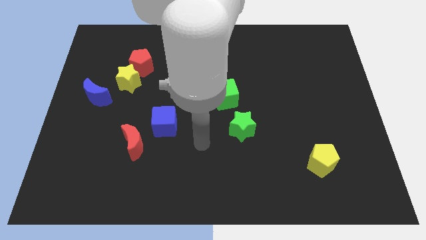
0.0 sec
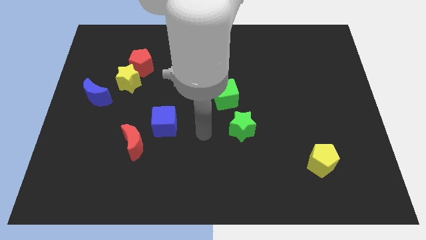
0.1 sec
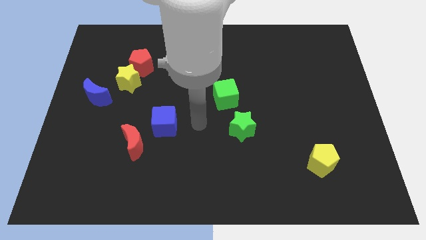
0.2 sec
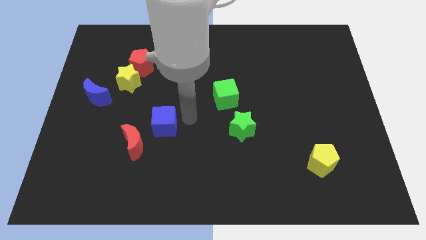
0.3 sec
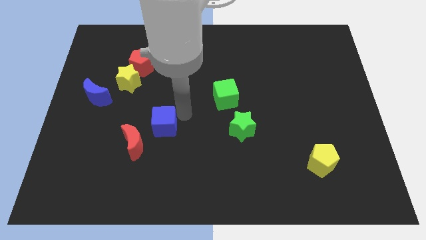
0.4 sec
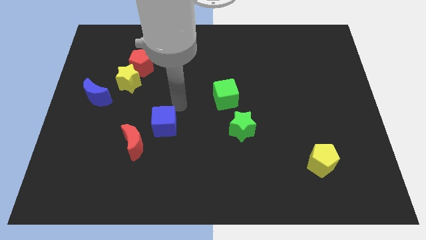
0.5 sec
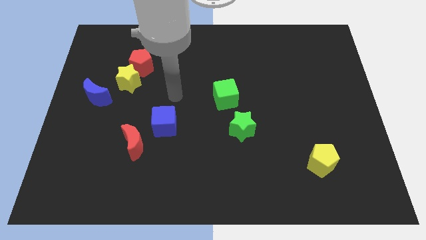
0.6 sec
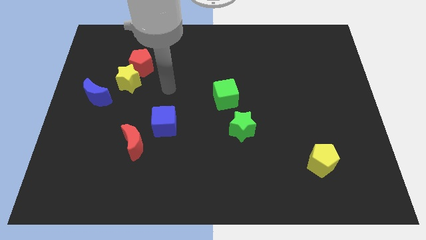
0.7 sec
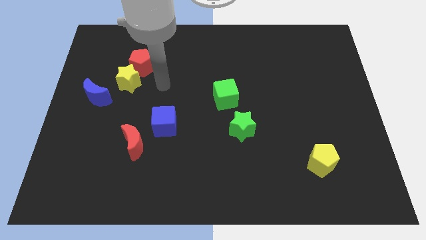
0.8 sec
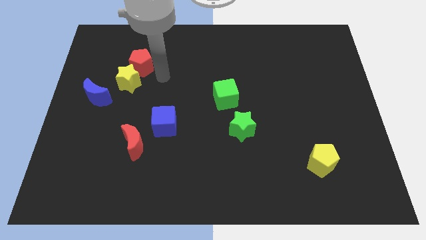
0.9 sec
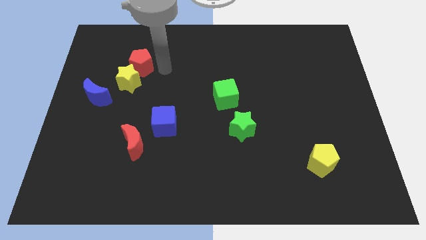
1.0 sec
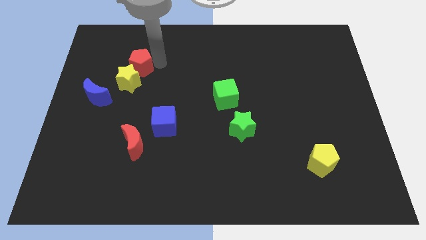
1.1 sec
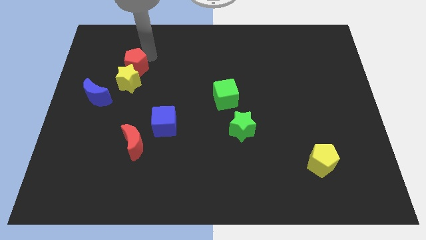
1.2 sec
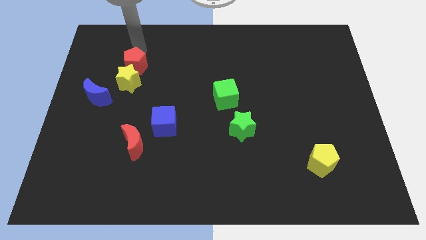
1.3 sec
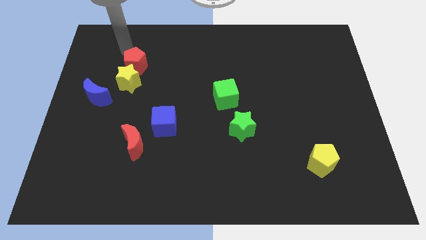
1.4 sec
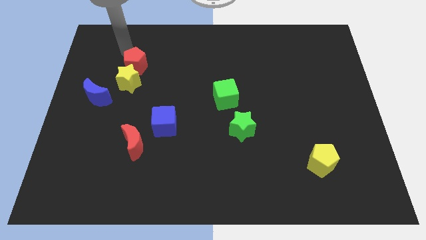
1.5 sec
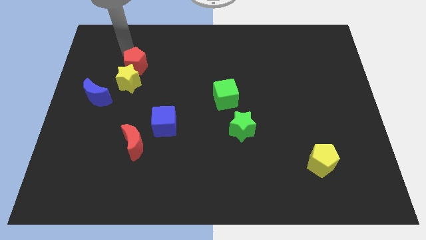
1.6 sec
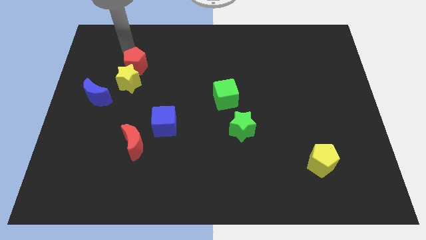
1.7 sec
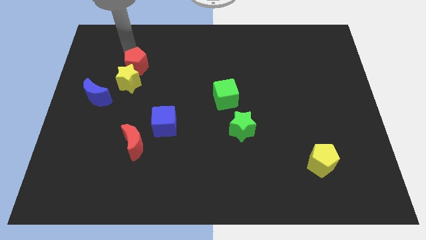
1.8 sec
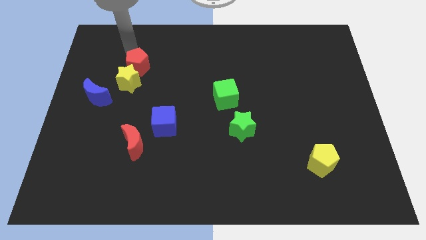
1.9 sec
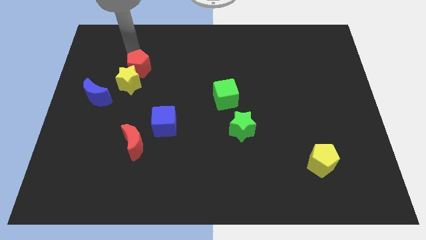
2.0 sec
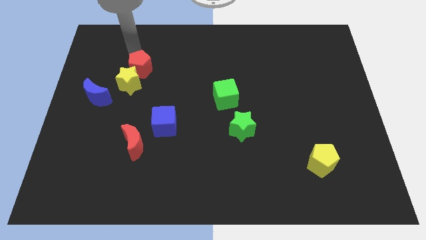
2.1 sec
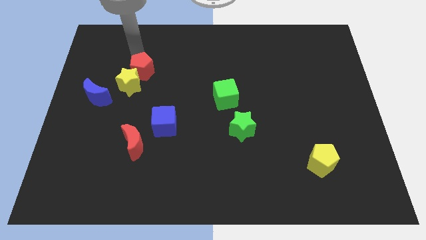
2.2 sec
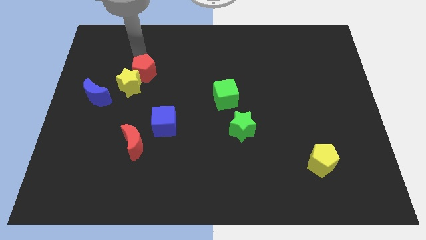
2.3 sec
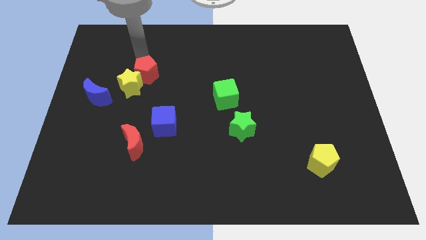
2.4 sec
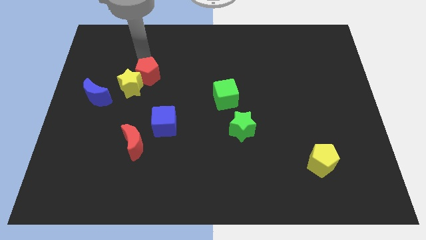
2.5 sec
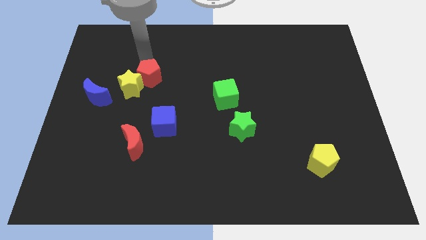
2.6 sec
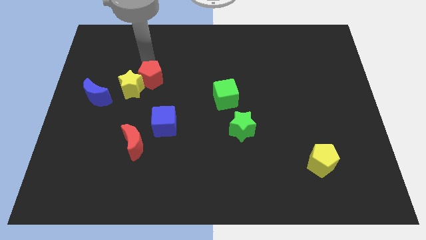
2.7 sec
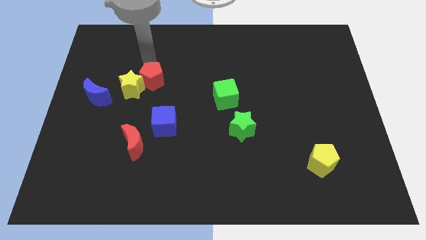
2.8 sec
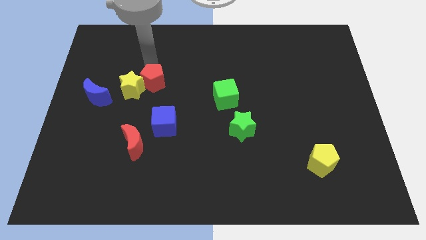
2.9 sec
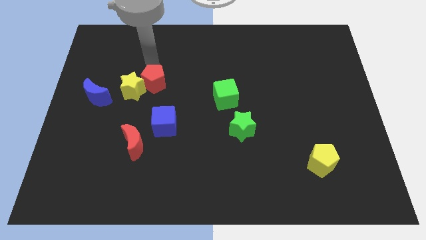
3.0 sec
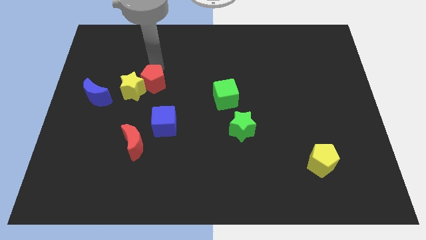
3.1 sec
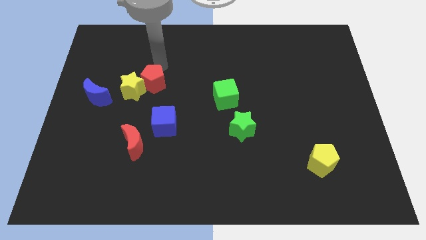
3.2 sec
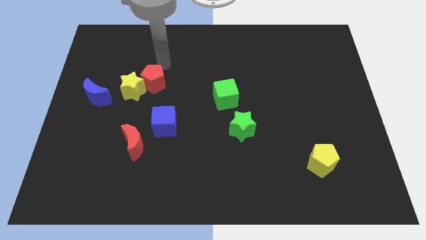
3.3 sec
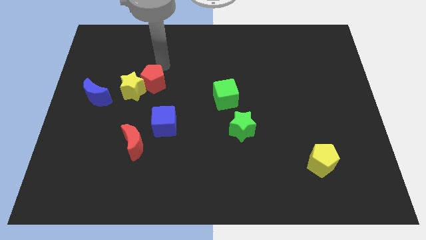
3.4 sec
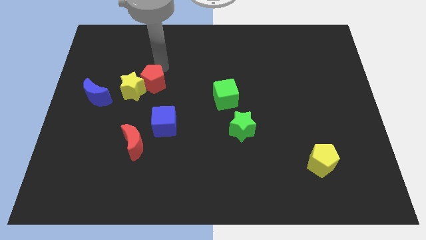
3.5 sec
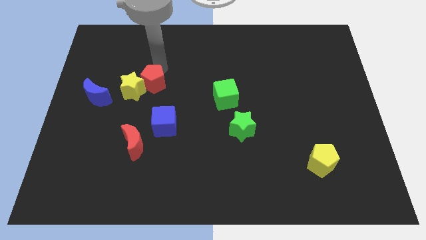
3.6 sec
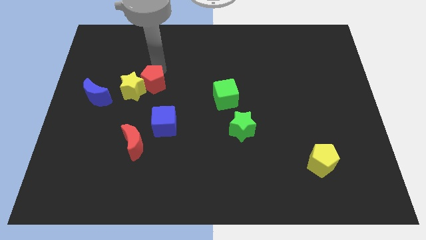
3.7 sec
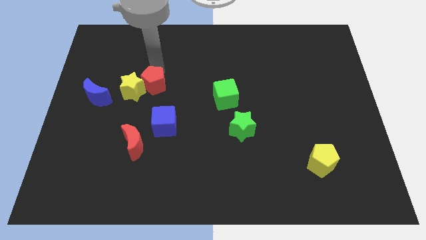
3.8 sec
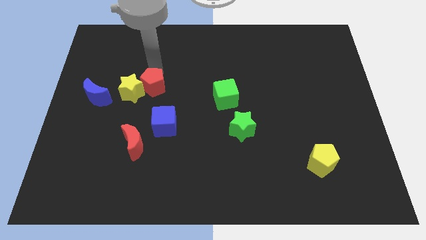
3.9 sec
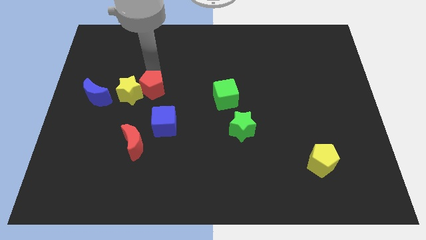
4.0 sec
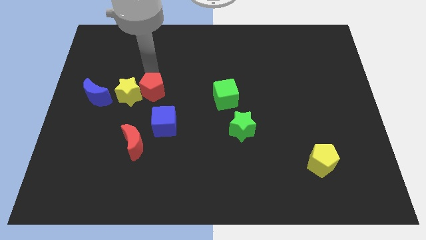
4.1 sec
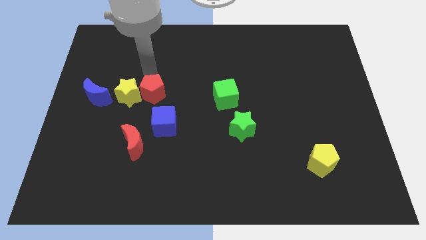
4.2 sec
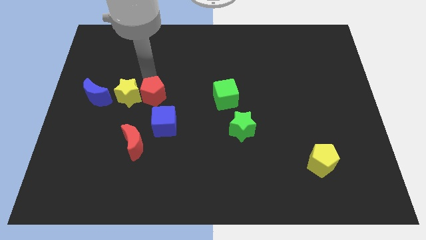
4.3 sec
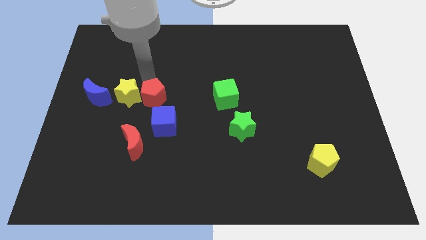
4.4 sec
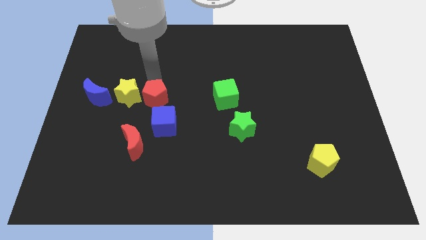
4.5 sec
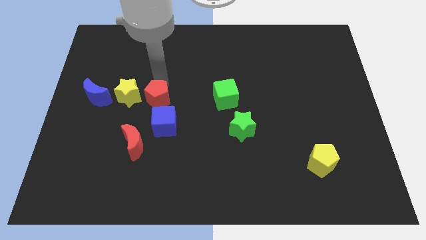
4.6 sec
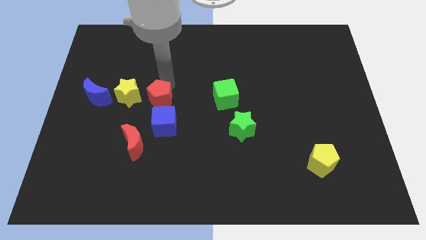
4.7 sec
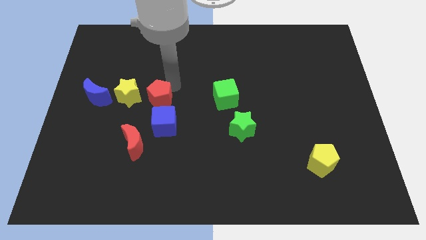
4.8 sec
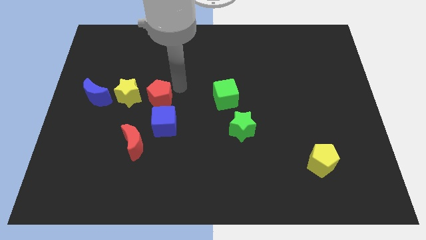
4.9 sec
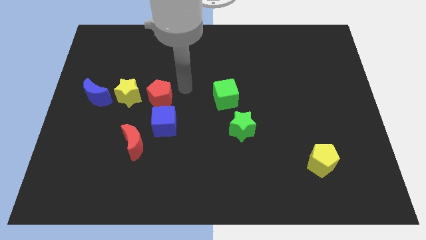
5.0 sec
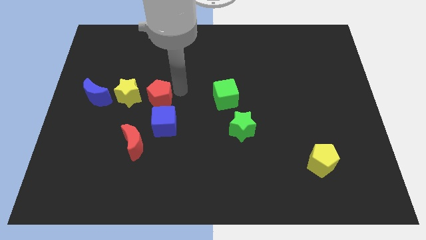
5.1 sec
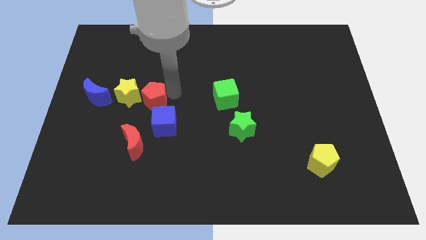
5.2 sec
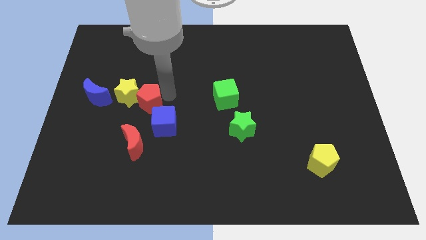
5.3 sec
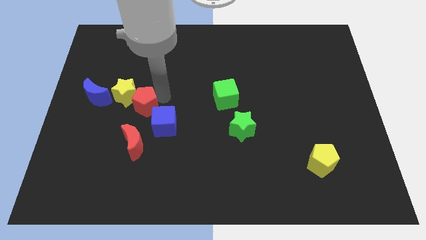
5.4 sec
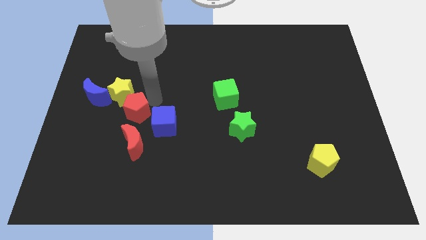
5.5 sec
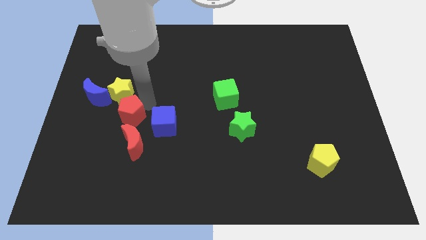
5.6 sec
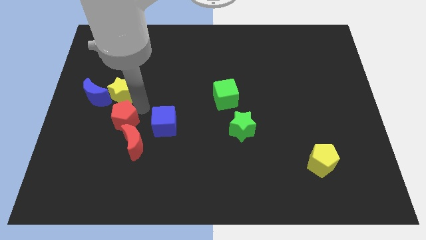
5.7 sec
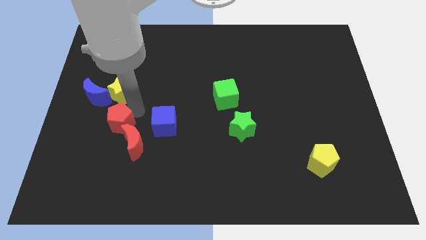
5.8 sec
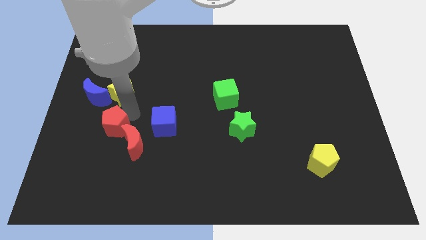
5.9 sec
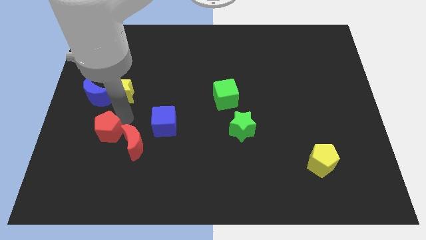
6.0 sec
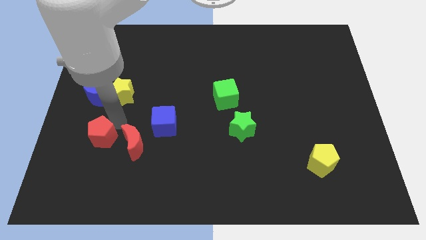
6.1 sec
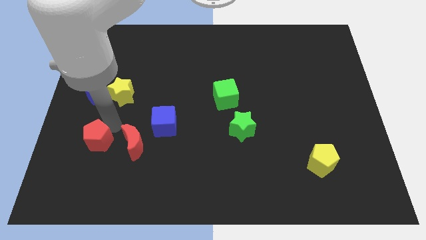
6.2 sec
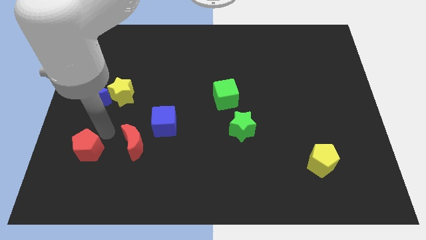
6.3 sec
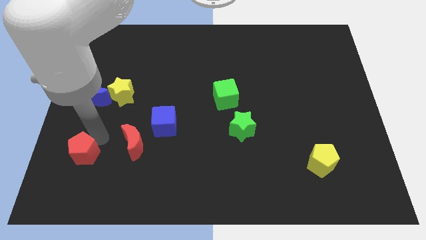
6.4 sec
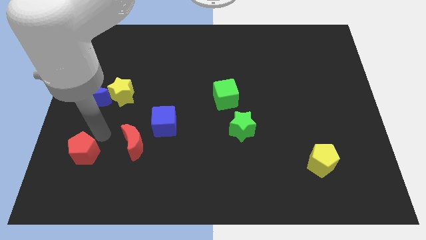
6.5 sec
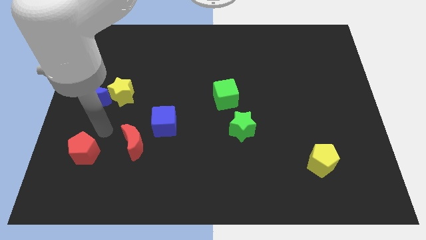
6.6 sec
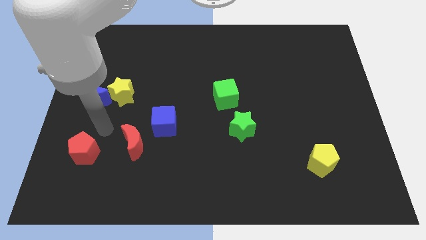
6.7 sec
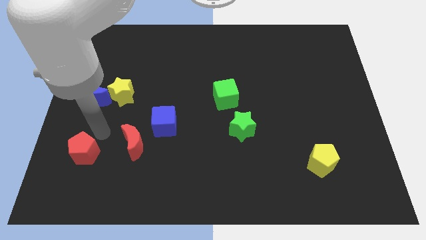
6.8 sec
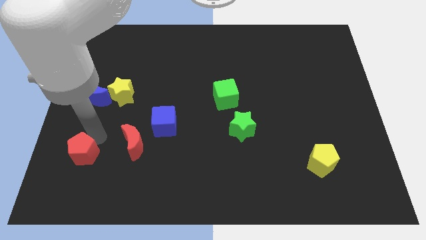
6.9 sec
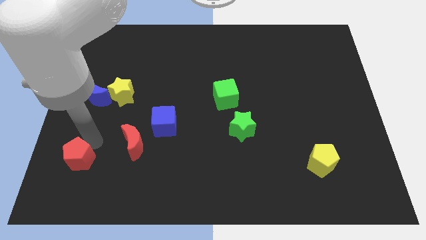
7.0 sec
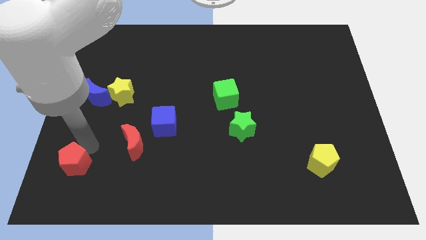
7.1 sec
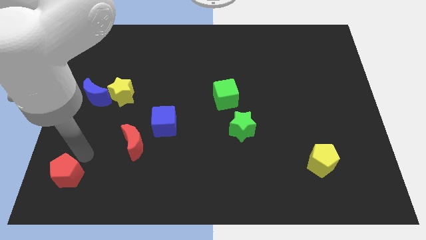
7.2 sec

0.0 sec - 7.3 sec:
slide the red pentagon to the bottom left
